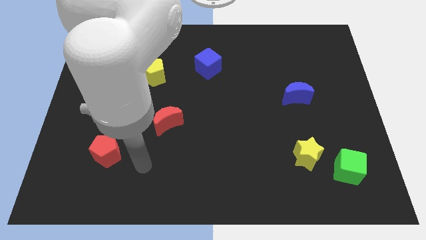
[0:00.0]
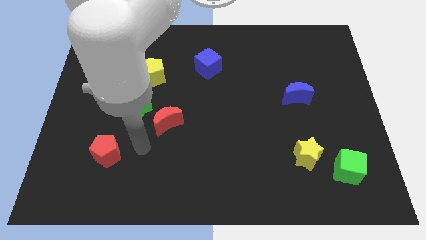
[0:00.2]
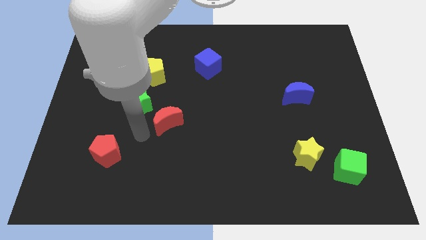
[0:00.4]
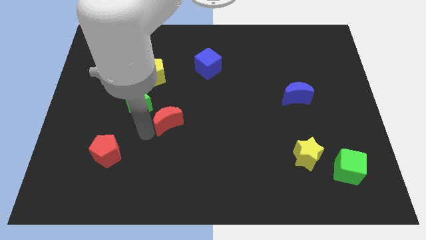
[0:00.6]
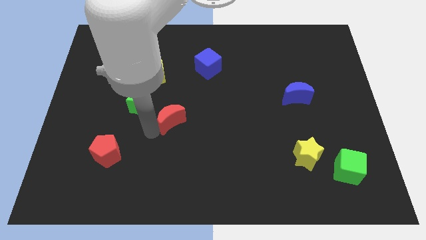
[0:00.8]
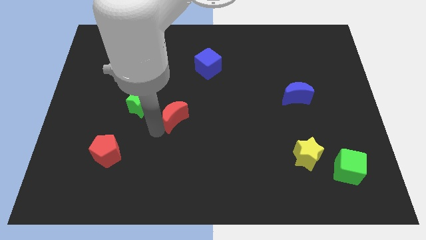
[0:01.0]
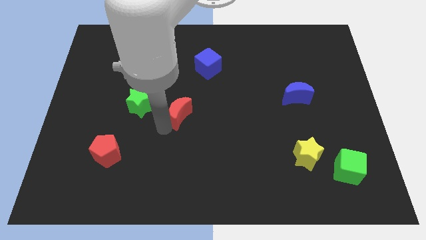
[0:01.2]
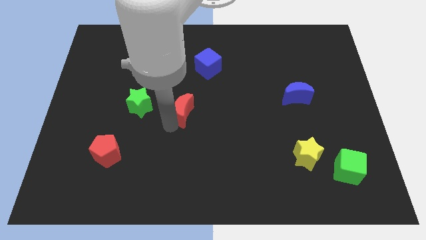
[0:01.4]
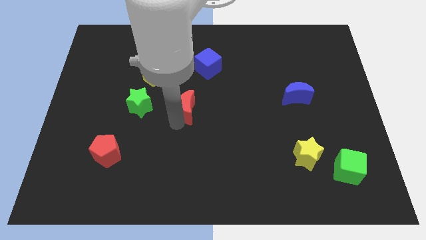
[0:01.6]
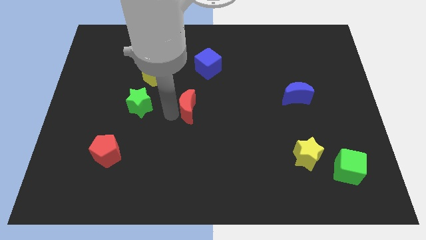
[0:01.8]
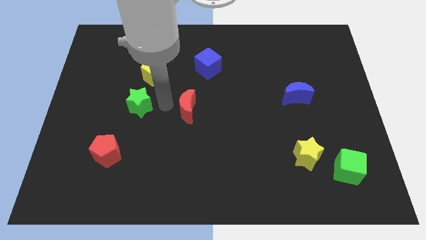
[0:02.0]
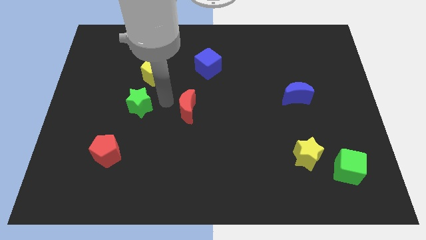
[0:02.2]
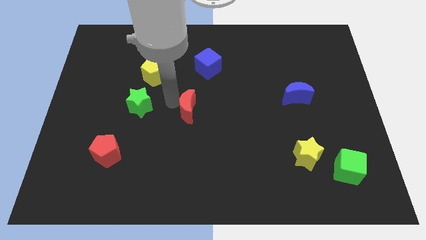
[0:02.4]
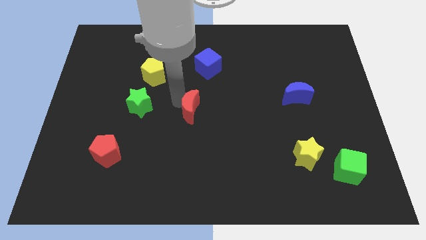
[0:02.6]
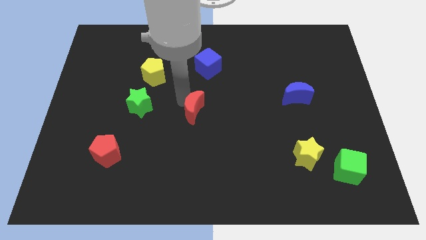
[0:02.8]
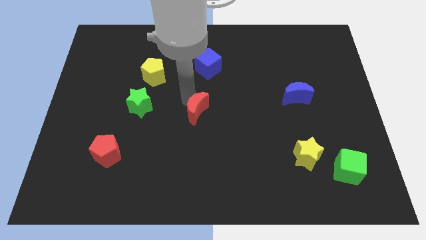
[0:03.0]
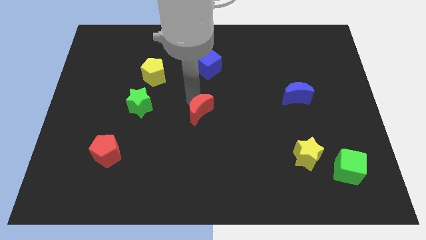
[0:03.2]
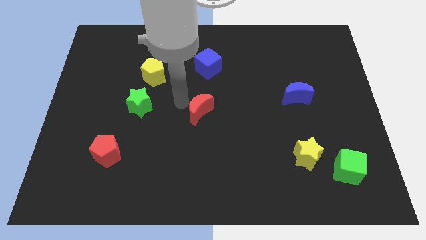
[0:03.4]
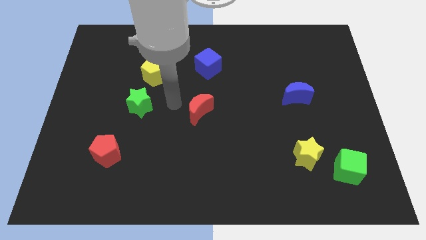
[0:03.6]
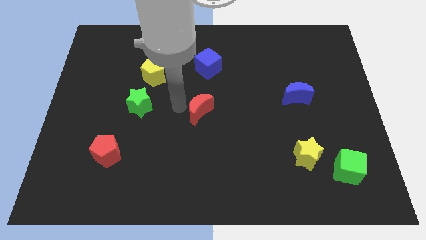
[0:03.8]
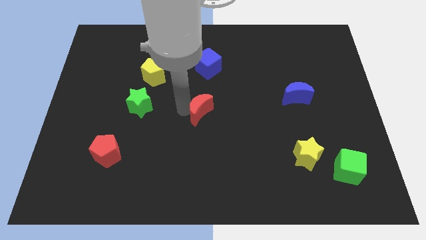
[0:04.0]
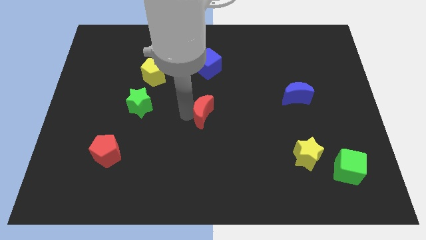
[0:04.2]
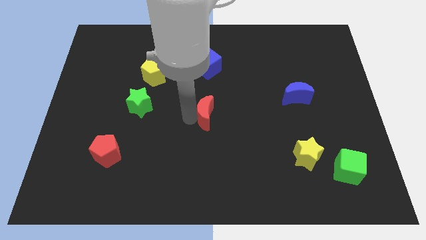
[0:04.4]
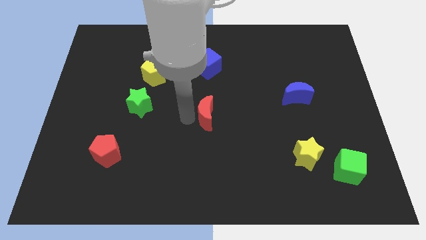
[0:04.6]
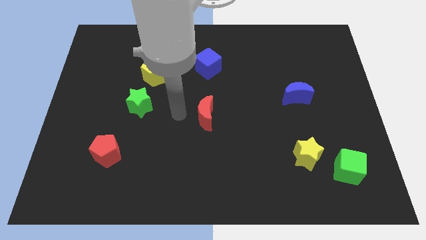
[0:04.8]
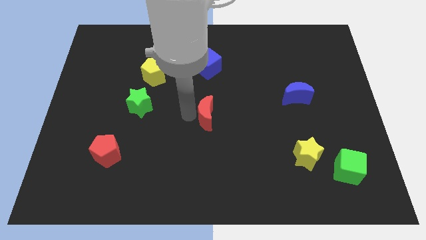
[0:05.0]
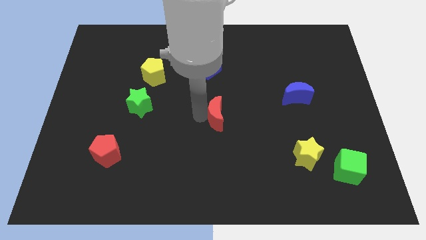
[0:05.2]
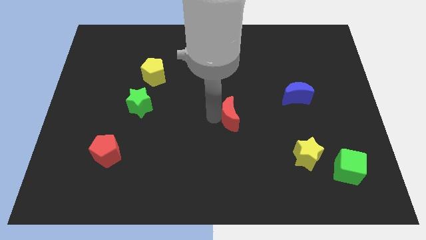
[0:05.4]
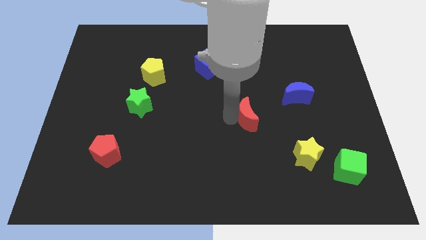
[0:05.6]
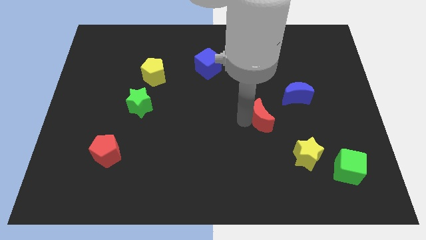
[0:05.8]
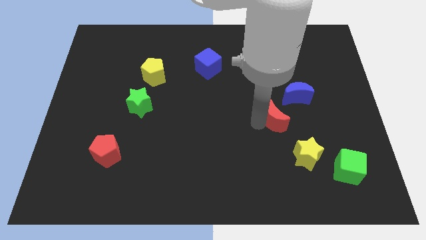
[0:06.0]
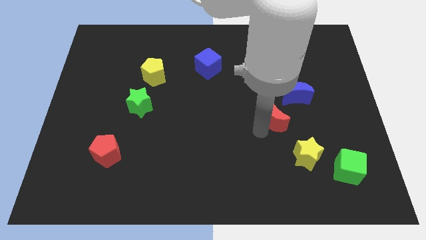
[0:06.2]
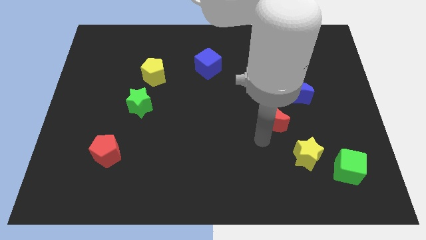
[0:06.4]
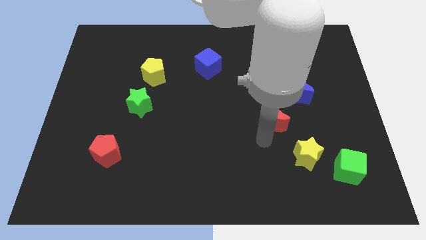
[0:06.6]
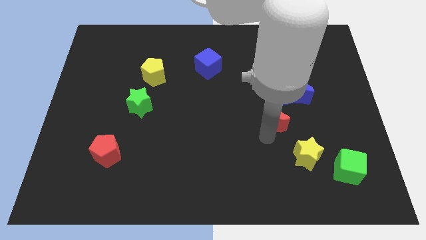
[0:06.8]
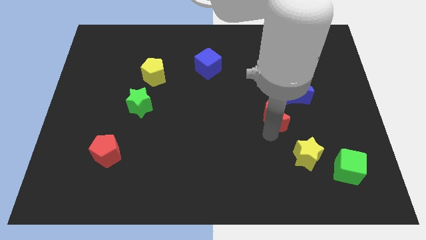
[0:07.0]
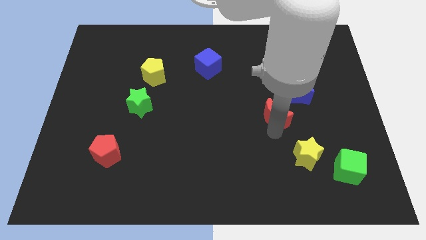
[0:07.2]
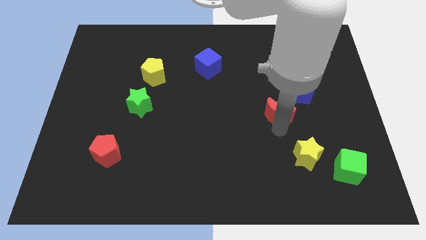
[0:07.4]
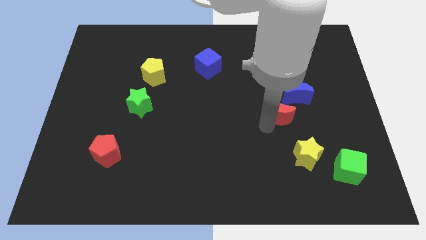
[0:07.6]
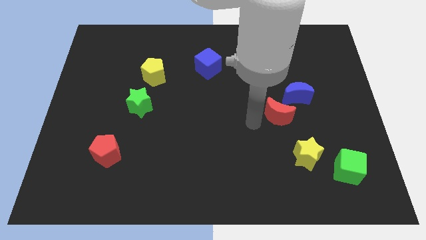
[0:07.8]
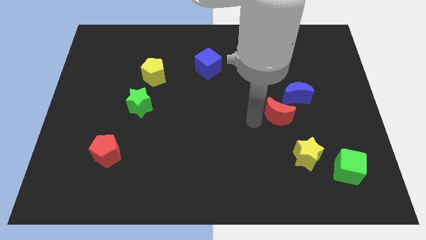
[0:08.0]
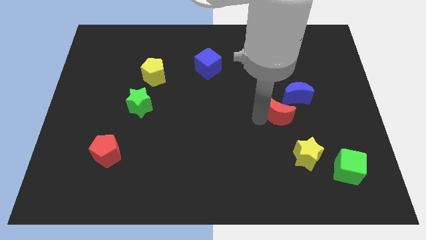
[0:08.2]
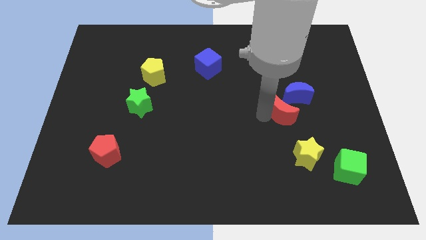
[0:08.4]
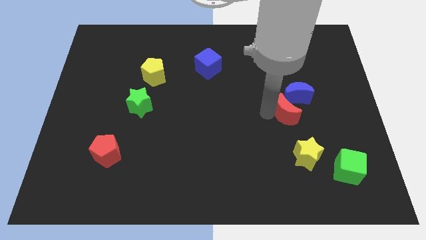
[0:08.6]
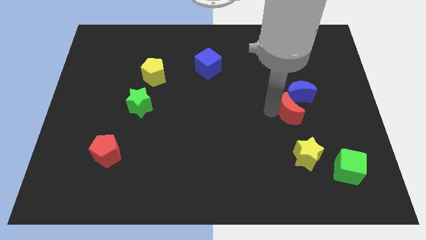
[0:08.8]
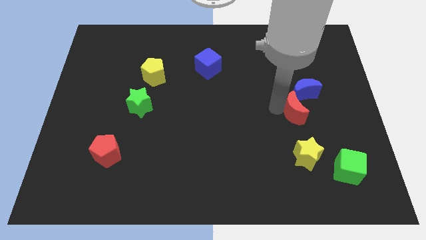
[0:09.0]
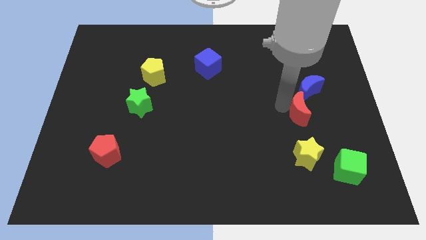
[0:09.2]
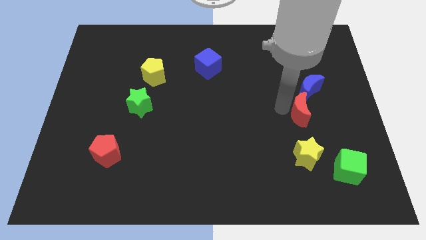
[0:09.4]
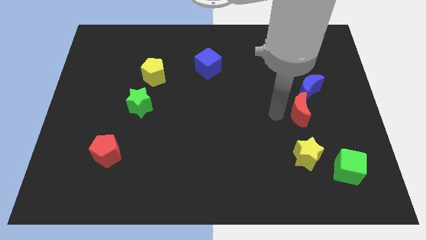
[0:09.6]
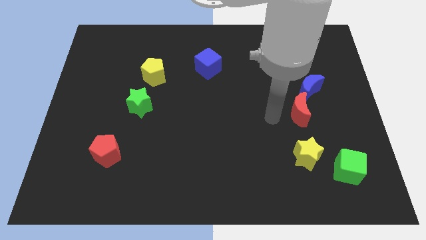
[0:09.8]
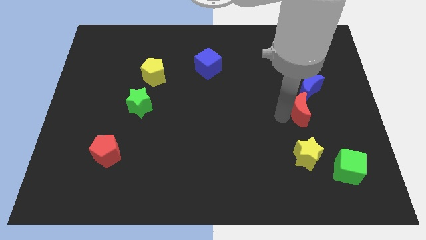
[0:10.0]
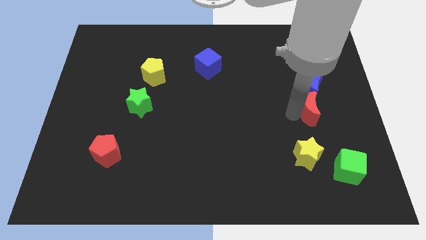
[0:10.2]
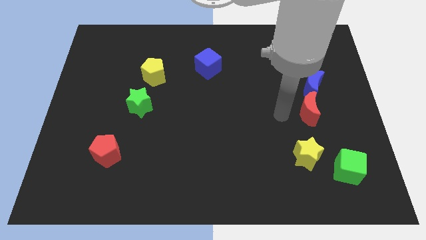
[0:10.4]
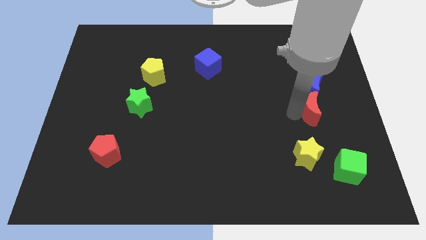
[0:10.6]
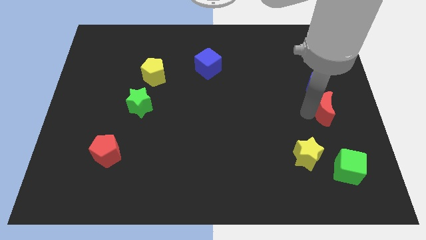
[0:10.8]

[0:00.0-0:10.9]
move the red moon to the right side
